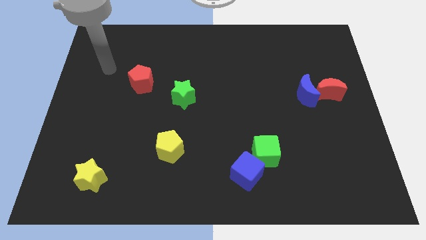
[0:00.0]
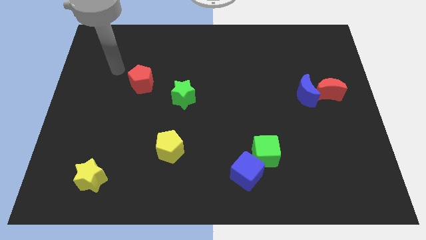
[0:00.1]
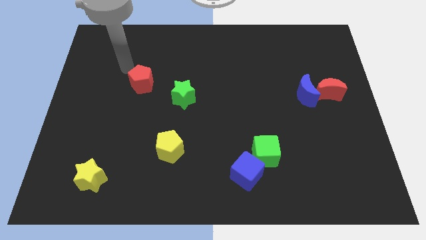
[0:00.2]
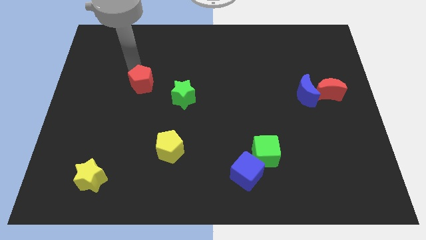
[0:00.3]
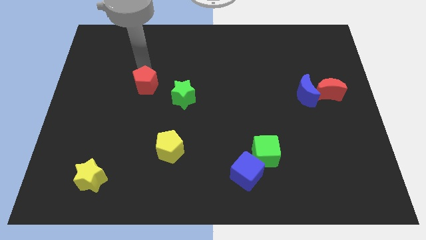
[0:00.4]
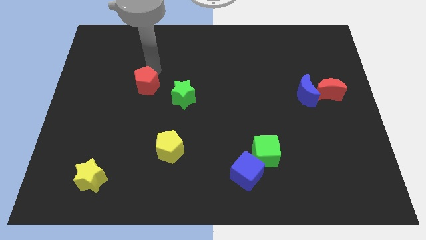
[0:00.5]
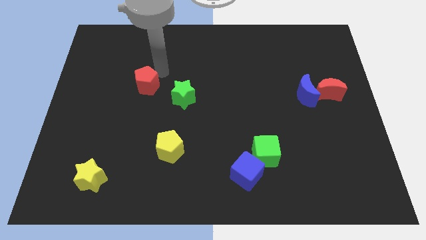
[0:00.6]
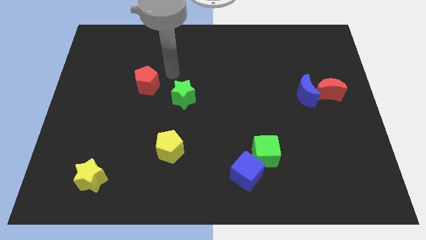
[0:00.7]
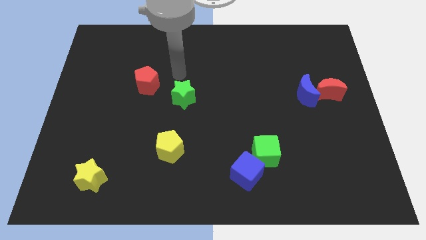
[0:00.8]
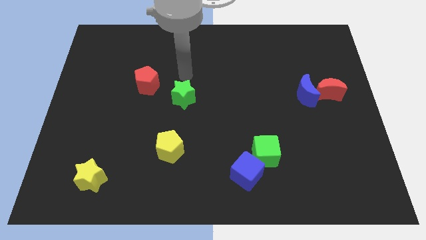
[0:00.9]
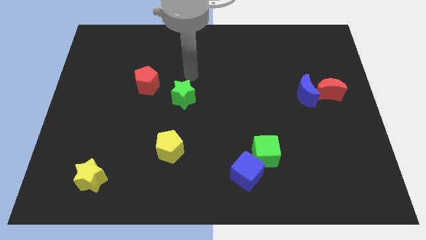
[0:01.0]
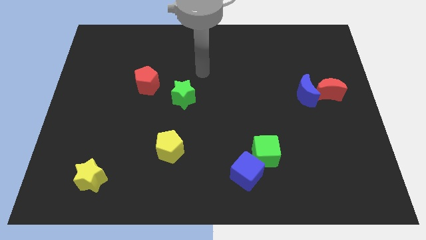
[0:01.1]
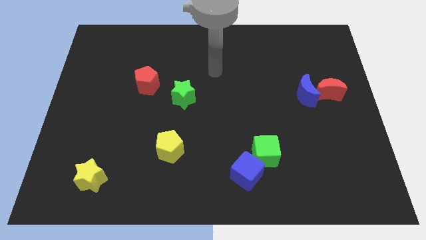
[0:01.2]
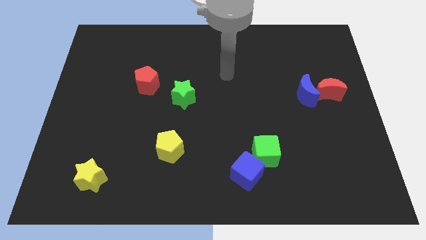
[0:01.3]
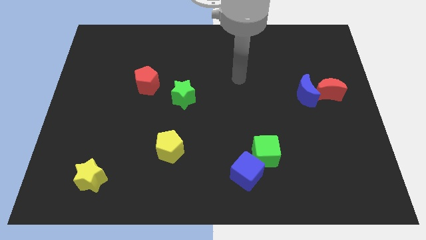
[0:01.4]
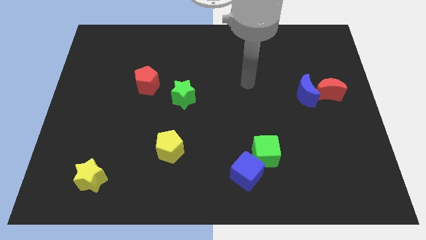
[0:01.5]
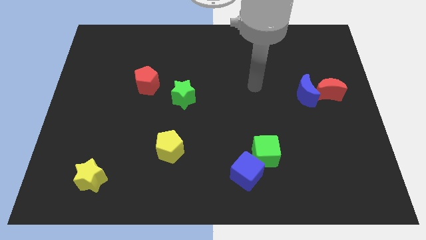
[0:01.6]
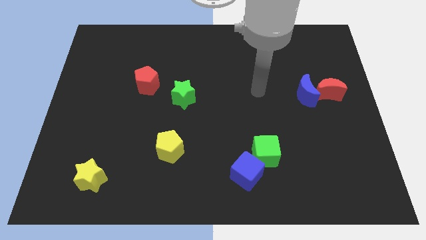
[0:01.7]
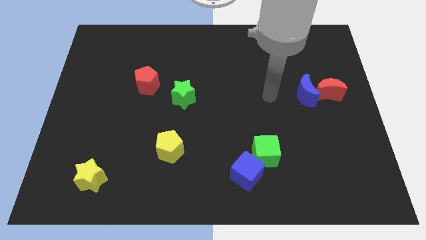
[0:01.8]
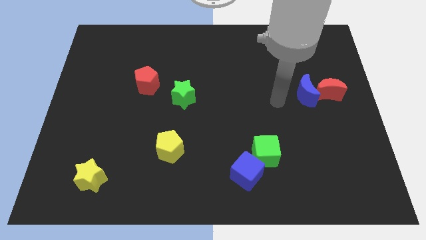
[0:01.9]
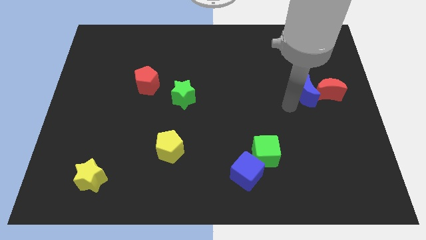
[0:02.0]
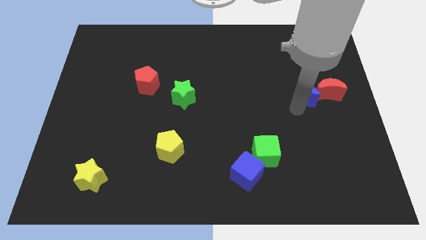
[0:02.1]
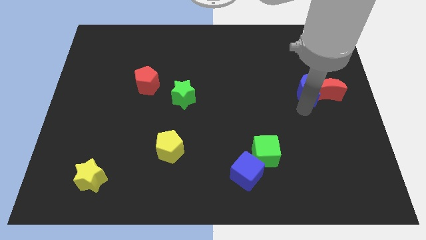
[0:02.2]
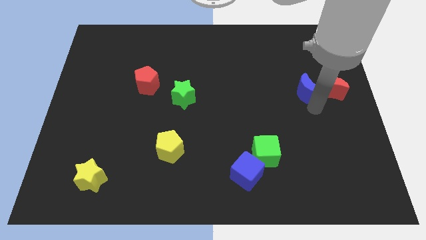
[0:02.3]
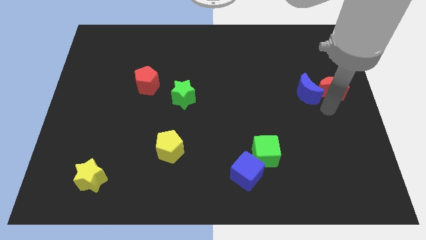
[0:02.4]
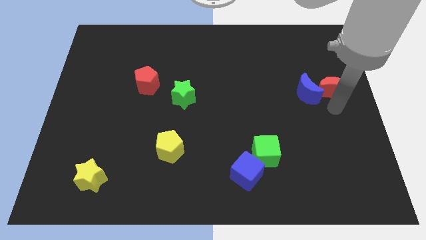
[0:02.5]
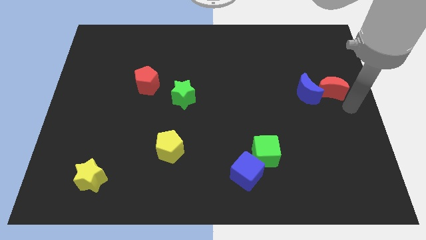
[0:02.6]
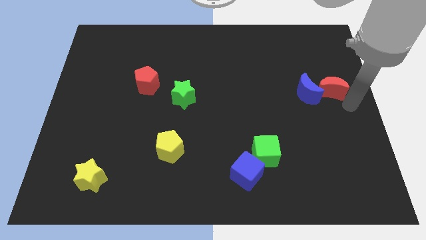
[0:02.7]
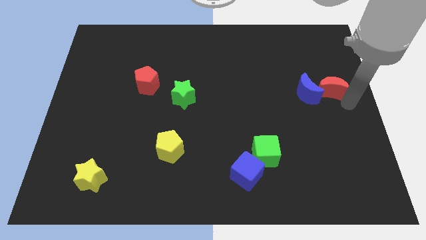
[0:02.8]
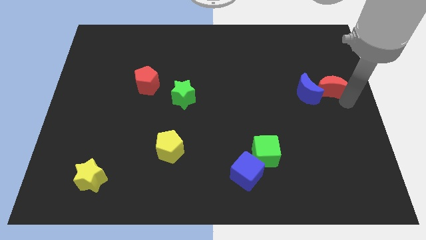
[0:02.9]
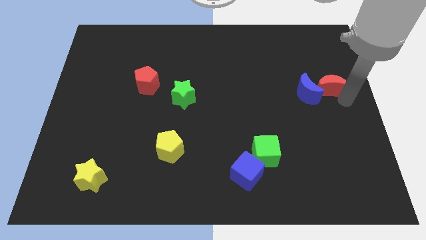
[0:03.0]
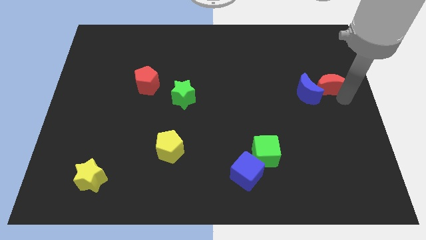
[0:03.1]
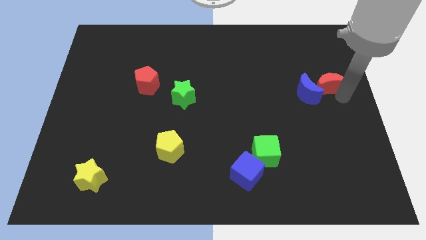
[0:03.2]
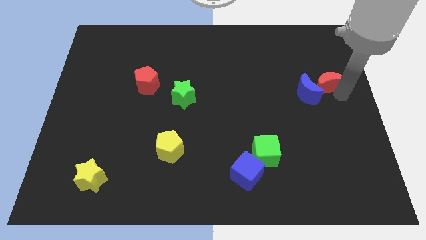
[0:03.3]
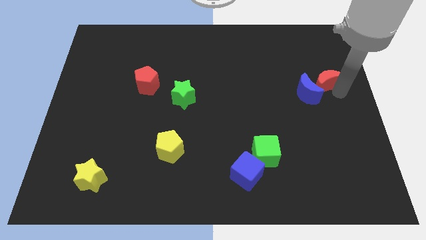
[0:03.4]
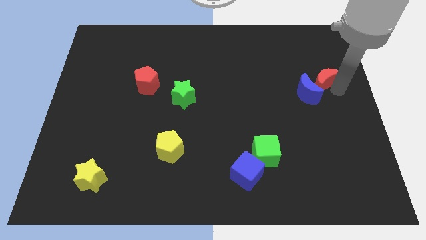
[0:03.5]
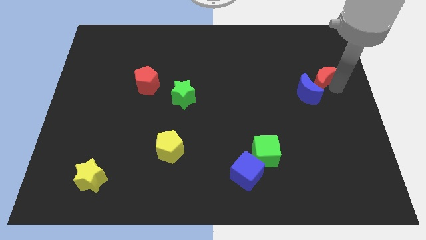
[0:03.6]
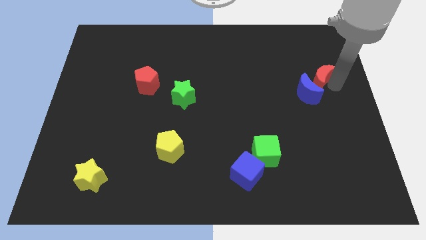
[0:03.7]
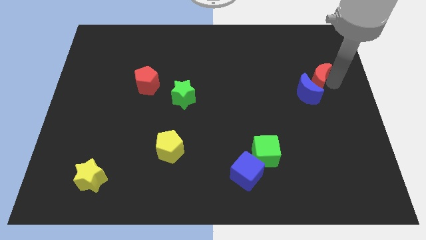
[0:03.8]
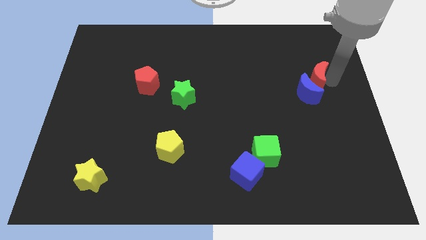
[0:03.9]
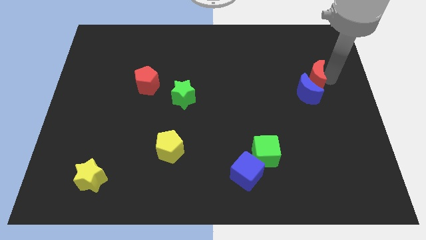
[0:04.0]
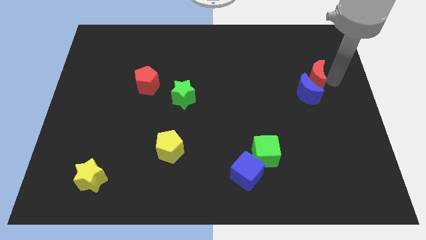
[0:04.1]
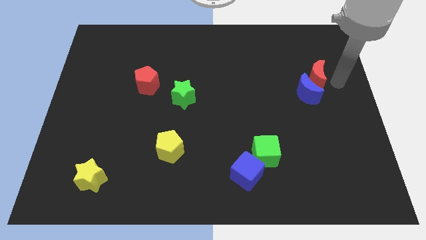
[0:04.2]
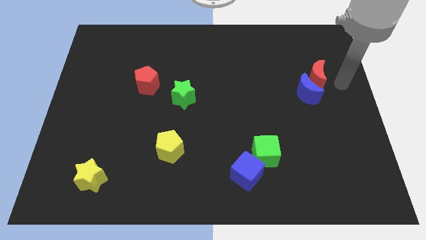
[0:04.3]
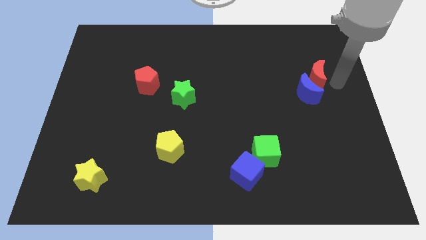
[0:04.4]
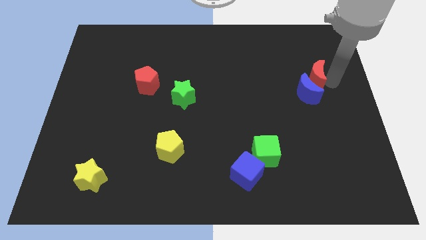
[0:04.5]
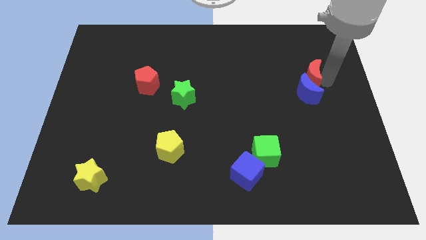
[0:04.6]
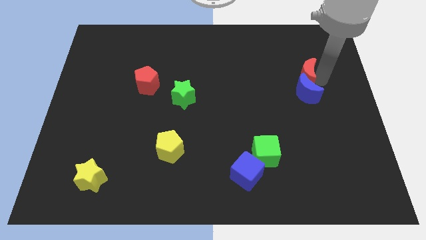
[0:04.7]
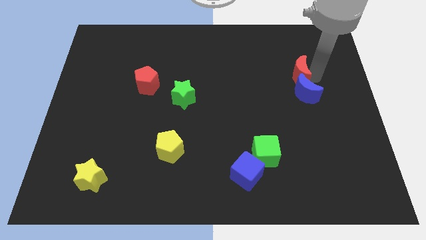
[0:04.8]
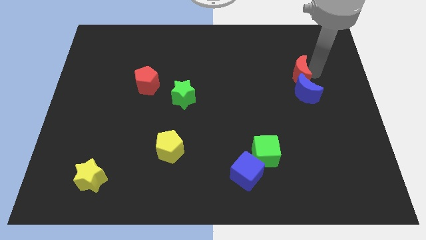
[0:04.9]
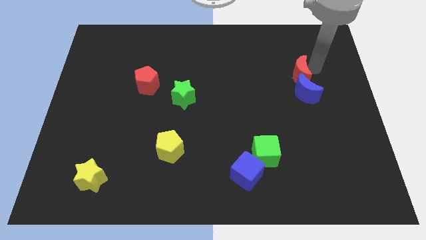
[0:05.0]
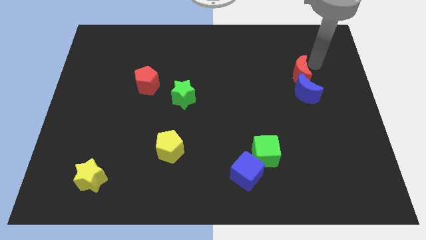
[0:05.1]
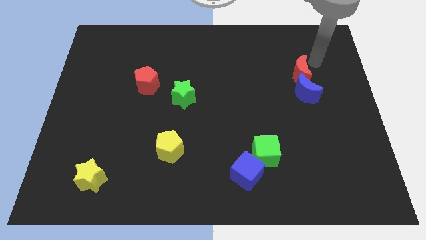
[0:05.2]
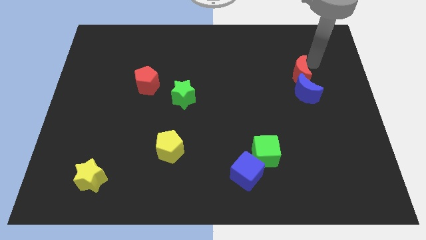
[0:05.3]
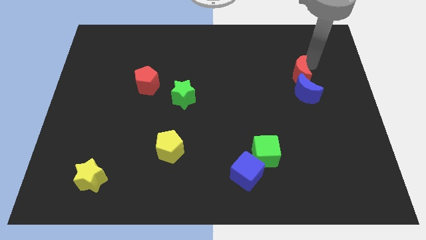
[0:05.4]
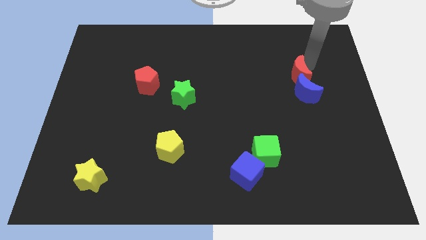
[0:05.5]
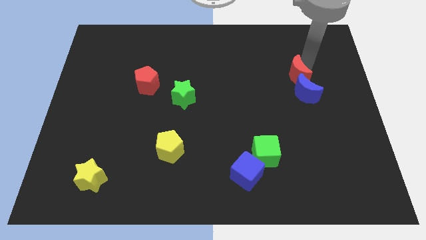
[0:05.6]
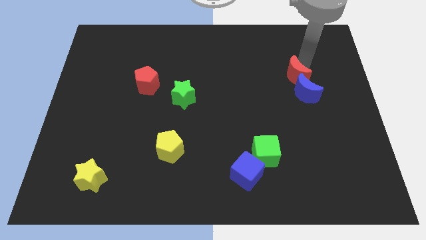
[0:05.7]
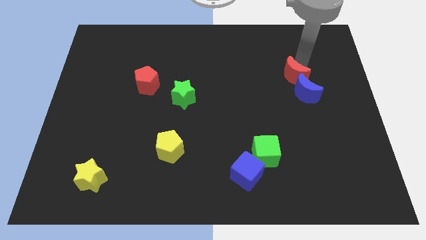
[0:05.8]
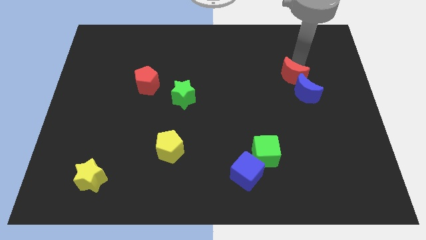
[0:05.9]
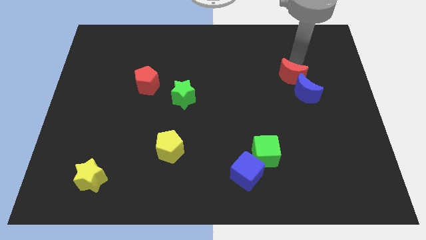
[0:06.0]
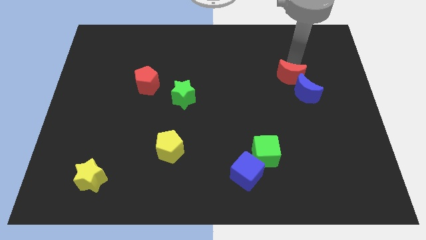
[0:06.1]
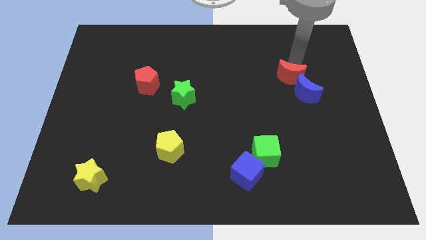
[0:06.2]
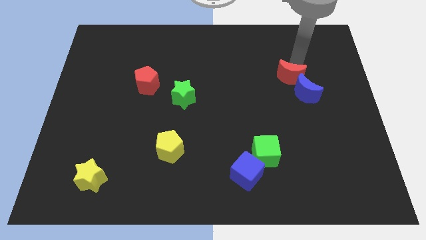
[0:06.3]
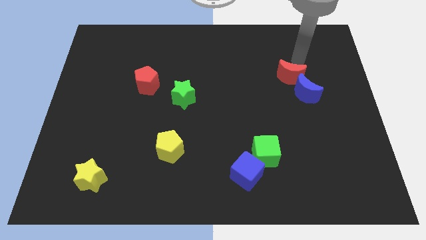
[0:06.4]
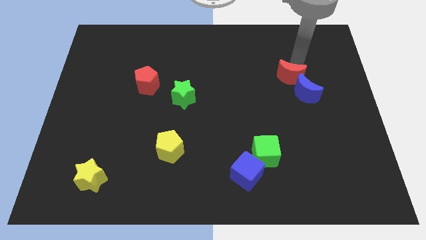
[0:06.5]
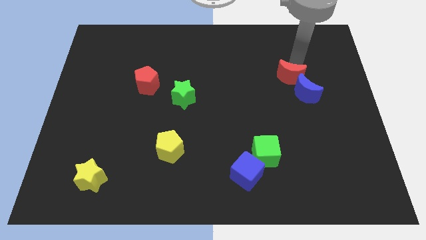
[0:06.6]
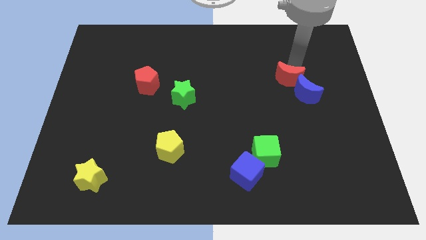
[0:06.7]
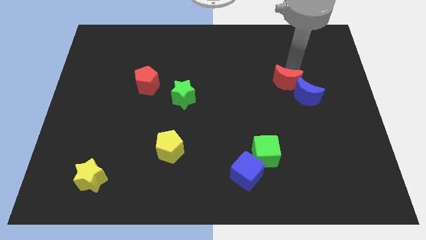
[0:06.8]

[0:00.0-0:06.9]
slide the red moon to the left side of the blue moon
